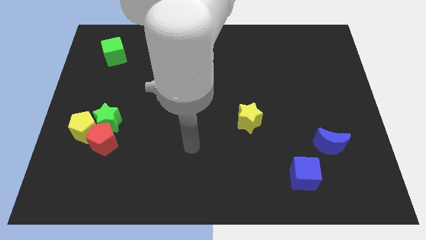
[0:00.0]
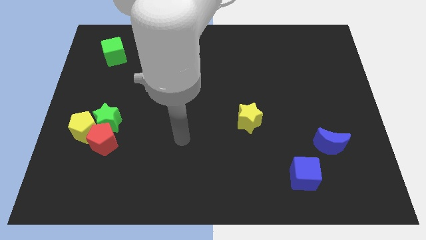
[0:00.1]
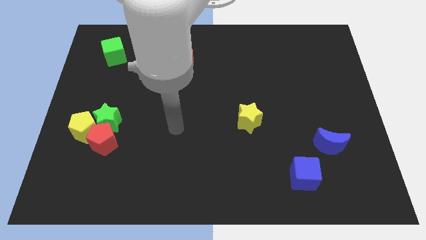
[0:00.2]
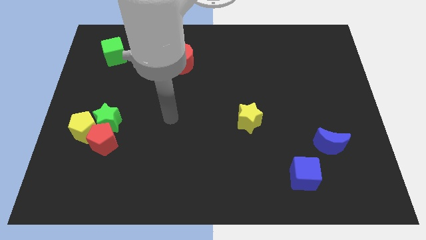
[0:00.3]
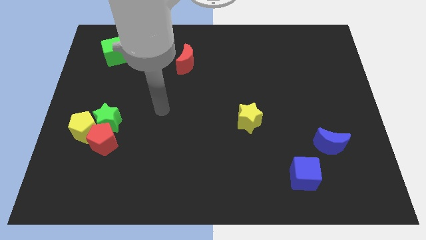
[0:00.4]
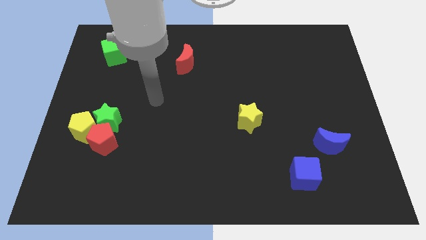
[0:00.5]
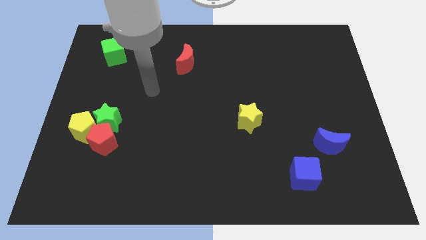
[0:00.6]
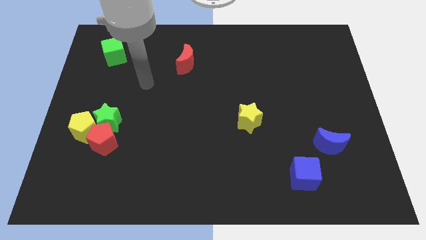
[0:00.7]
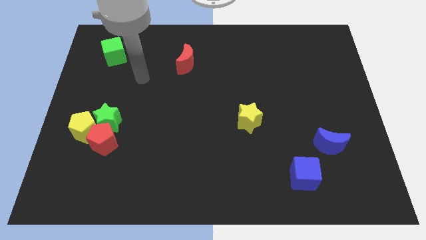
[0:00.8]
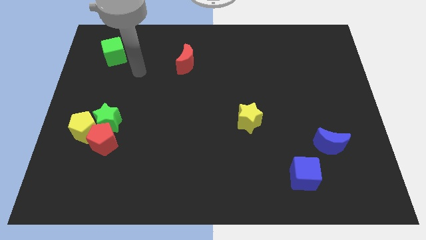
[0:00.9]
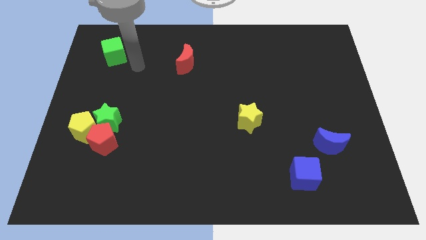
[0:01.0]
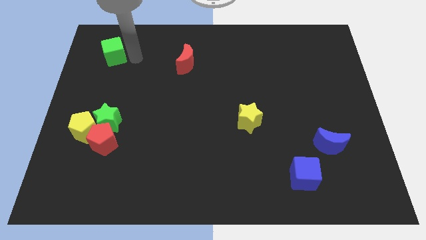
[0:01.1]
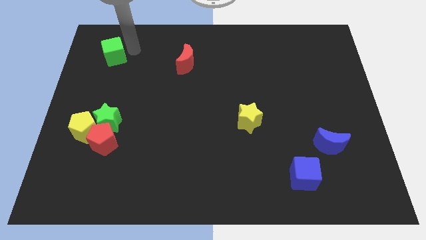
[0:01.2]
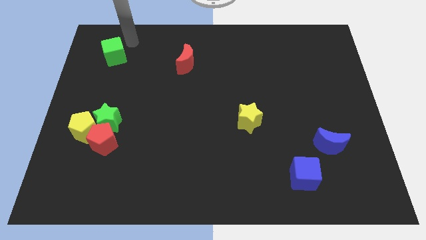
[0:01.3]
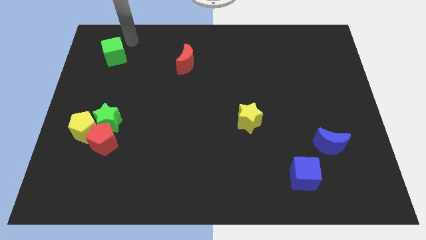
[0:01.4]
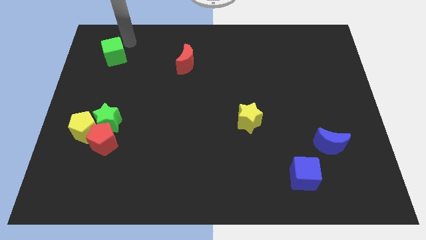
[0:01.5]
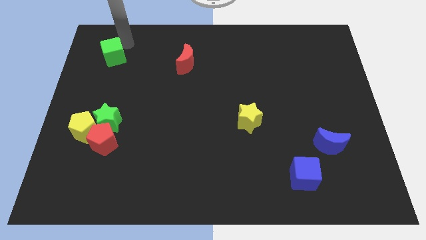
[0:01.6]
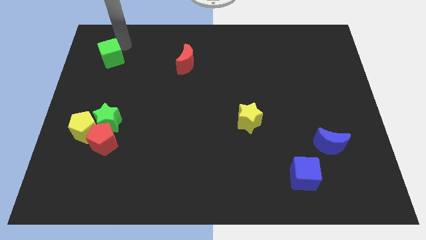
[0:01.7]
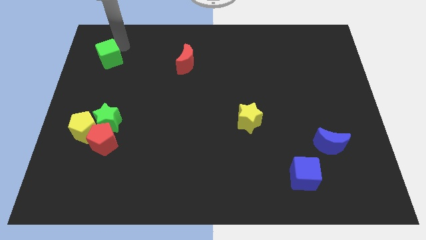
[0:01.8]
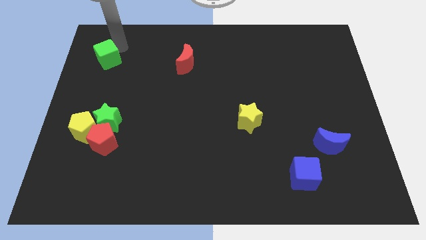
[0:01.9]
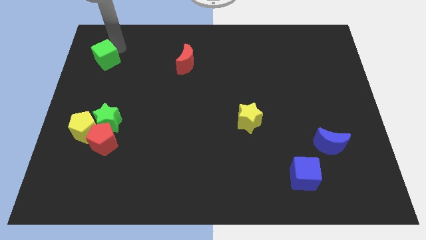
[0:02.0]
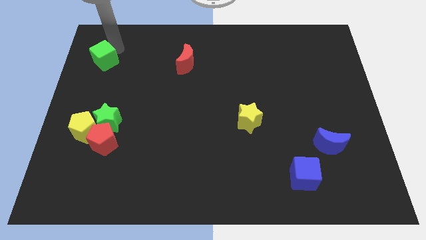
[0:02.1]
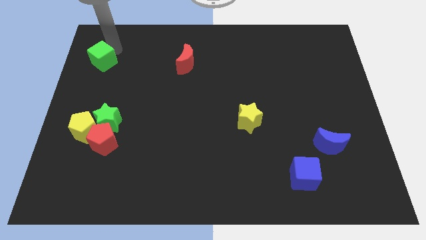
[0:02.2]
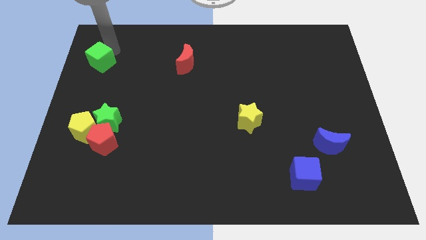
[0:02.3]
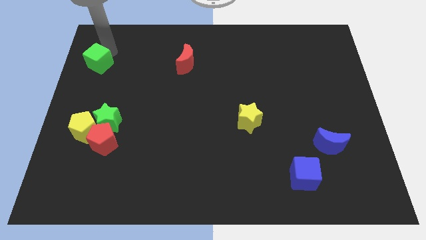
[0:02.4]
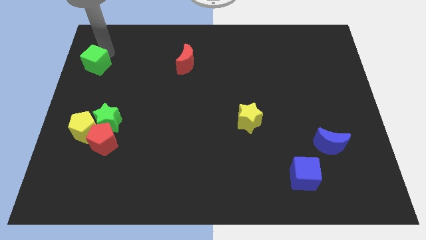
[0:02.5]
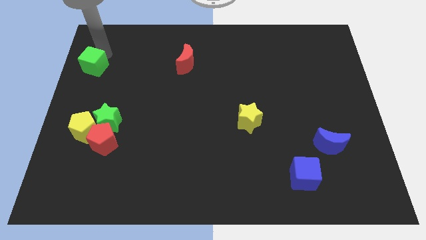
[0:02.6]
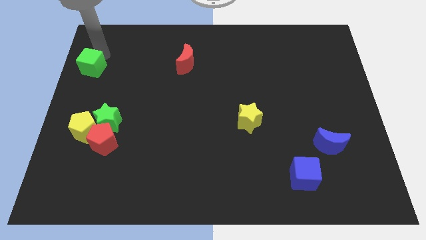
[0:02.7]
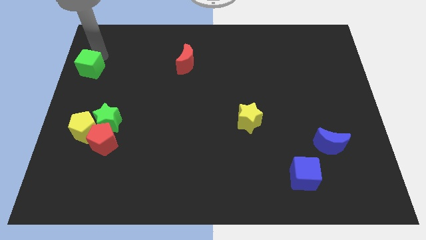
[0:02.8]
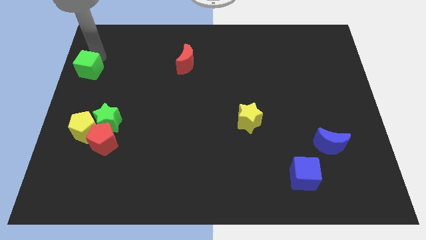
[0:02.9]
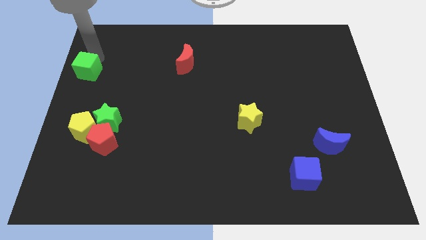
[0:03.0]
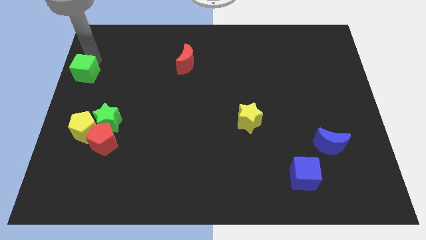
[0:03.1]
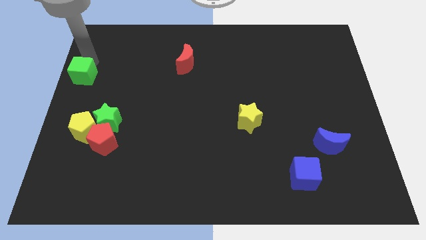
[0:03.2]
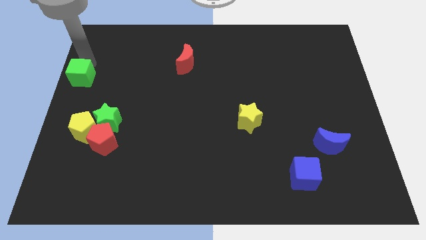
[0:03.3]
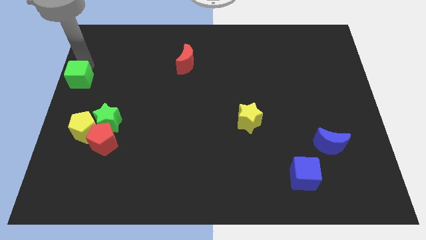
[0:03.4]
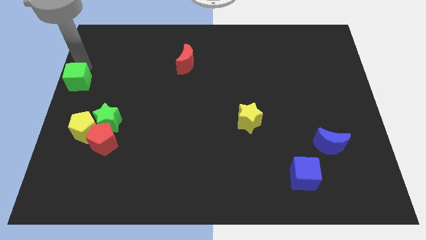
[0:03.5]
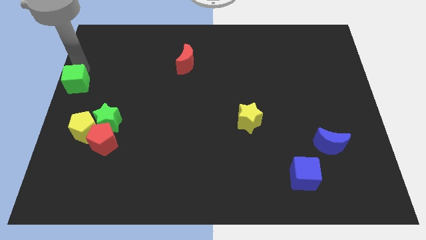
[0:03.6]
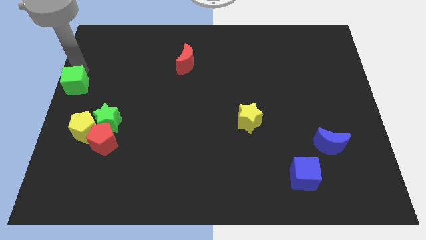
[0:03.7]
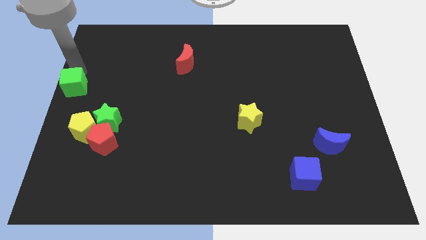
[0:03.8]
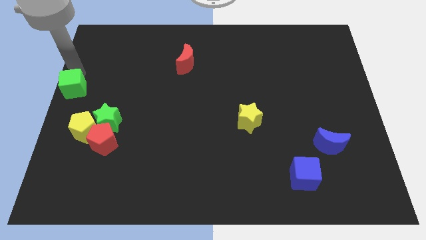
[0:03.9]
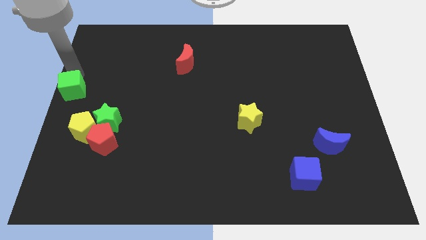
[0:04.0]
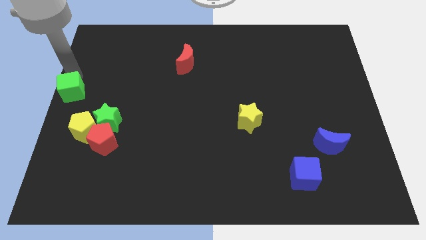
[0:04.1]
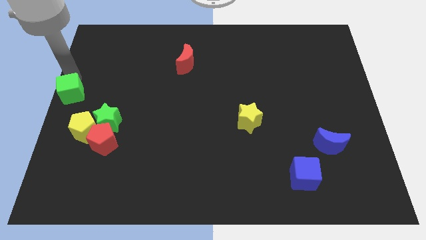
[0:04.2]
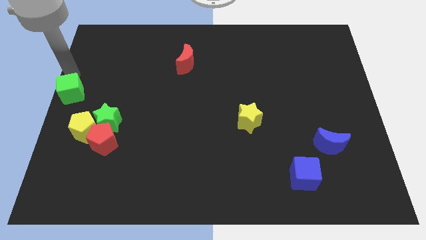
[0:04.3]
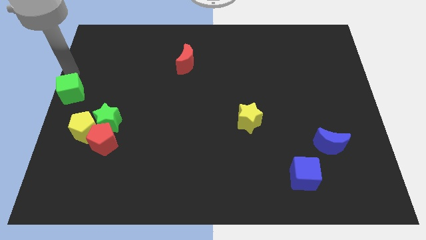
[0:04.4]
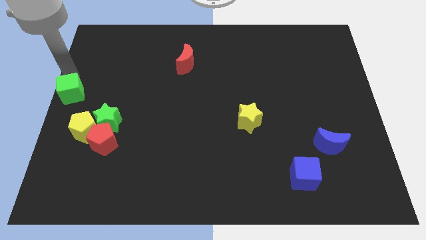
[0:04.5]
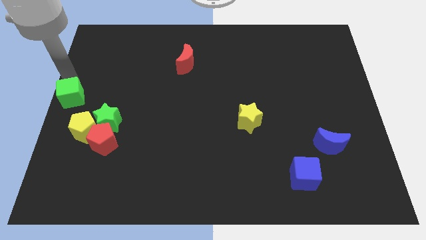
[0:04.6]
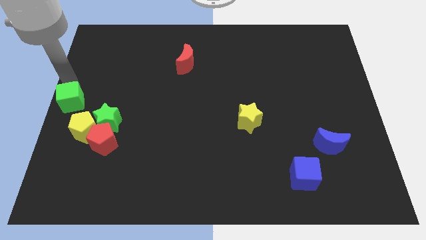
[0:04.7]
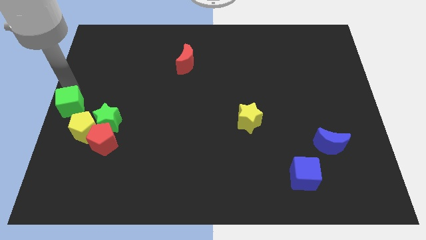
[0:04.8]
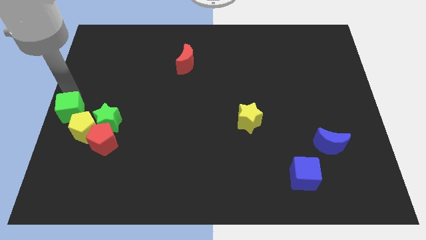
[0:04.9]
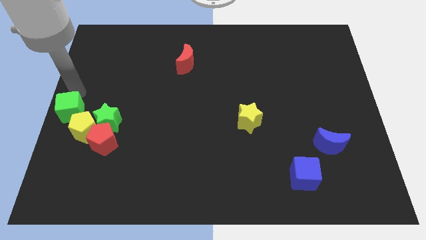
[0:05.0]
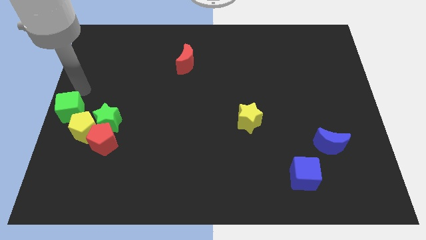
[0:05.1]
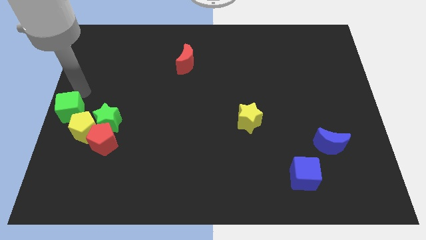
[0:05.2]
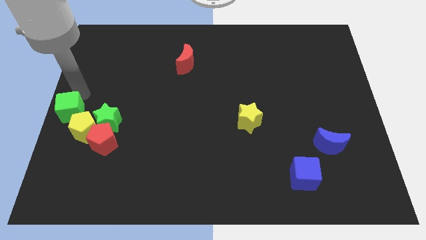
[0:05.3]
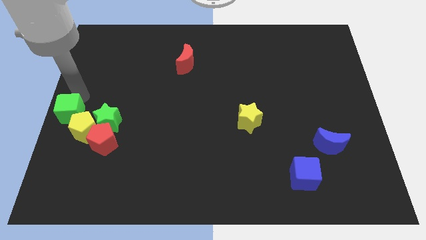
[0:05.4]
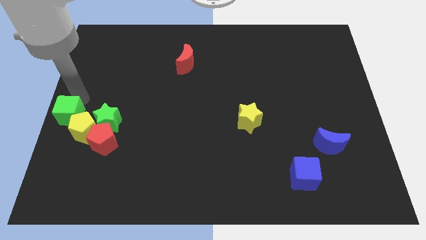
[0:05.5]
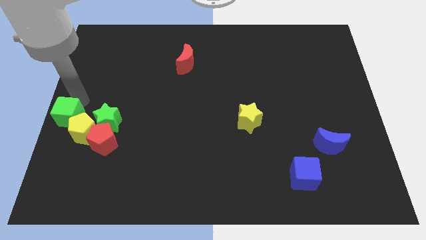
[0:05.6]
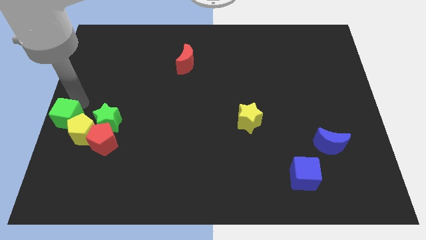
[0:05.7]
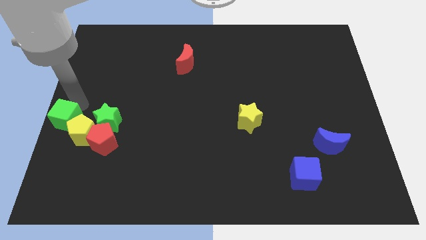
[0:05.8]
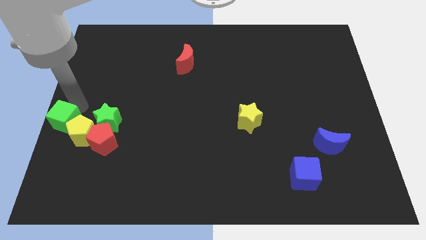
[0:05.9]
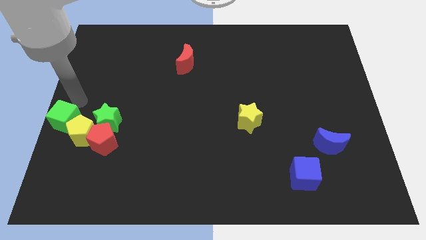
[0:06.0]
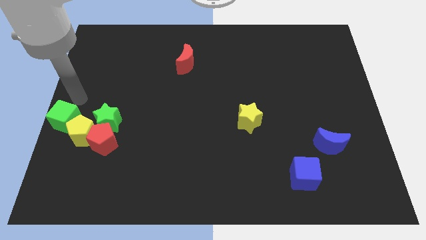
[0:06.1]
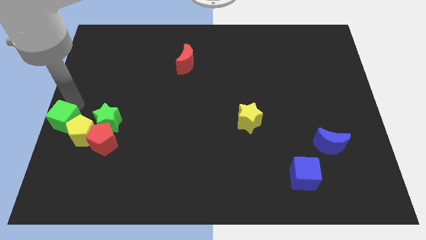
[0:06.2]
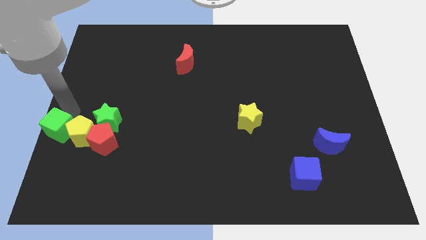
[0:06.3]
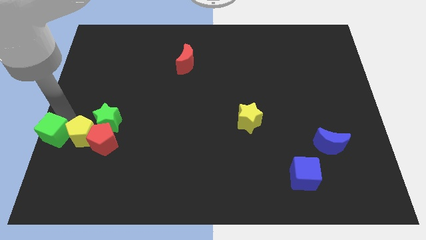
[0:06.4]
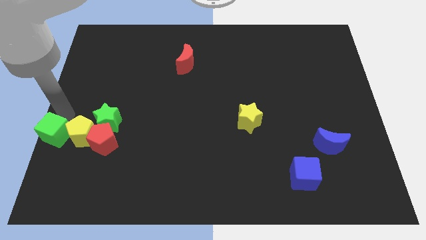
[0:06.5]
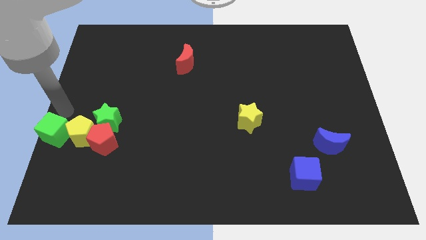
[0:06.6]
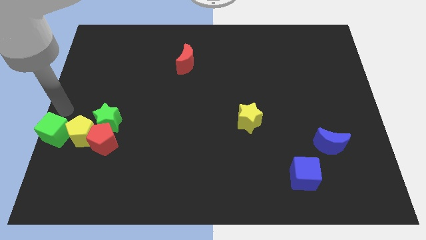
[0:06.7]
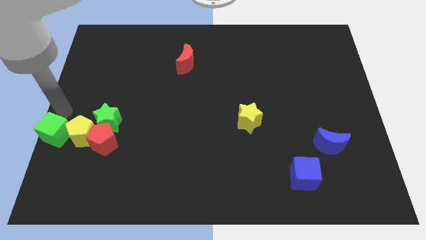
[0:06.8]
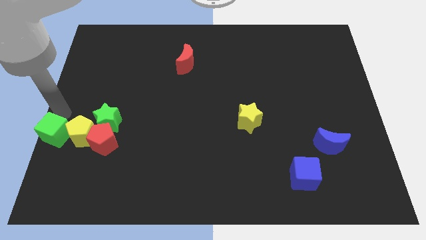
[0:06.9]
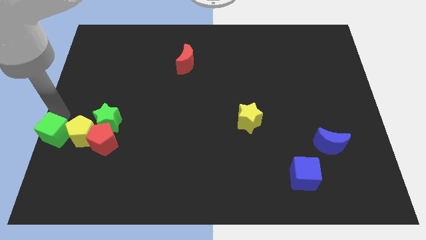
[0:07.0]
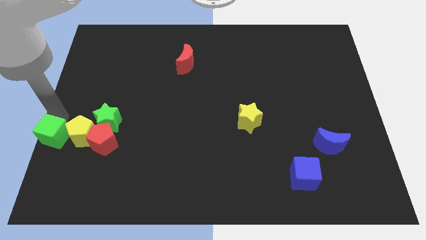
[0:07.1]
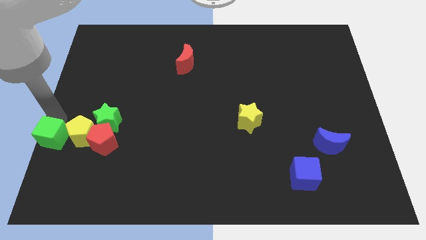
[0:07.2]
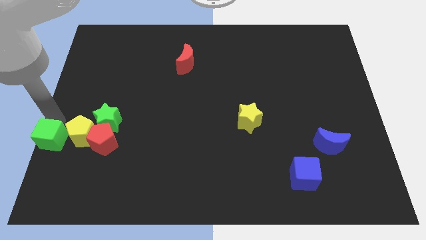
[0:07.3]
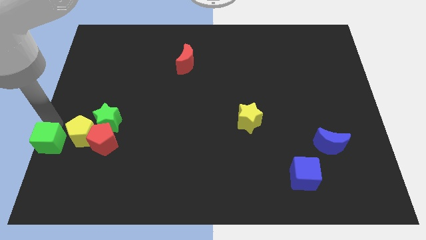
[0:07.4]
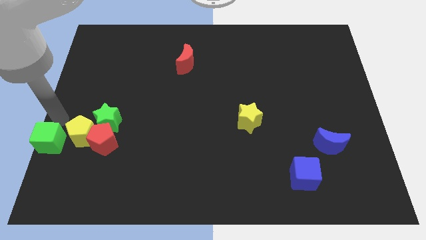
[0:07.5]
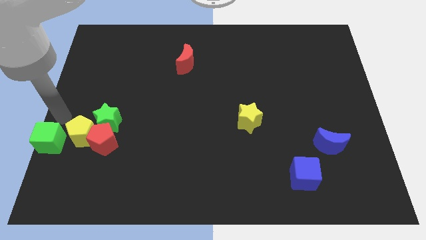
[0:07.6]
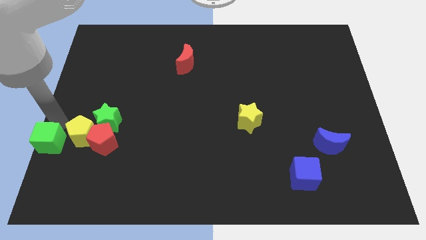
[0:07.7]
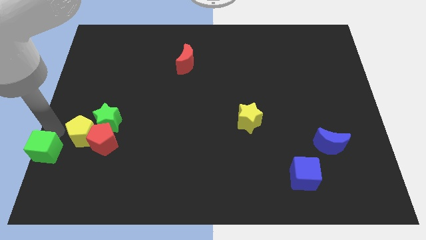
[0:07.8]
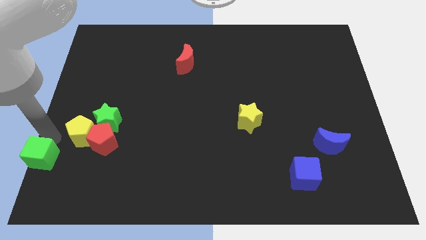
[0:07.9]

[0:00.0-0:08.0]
push the green cube to the bottom left
